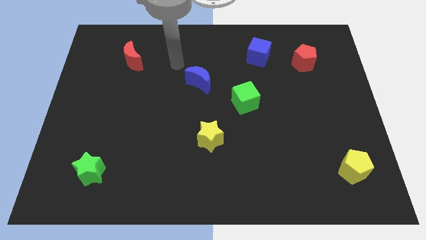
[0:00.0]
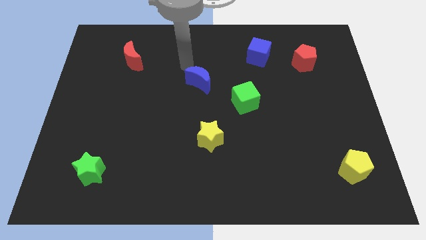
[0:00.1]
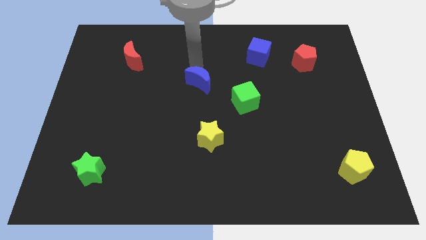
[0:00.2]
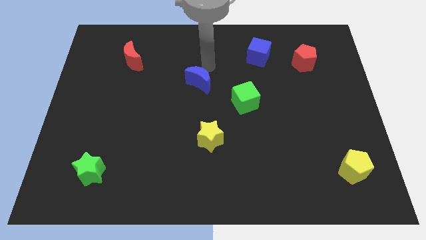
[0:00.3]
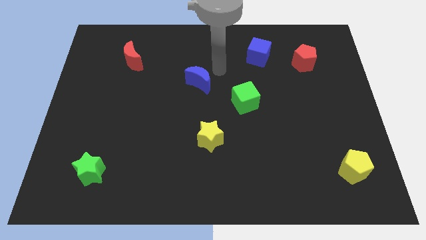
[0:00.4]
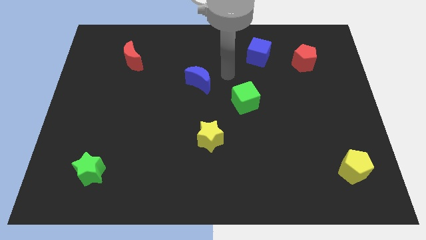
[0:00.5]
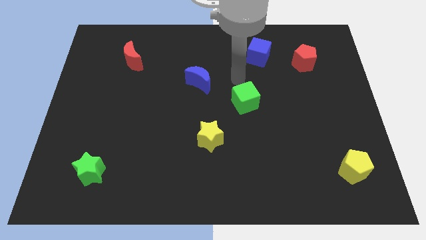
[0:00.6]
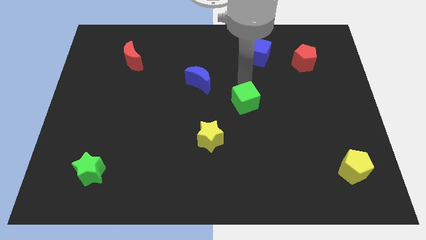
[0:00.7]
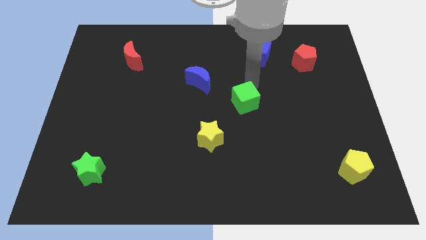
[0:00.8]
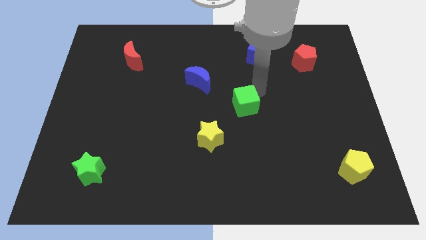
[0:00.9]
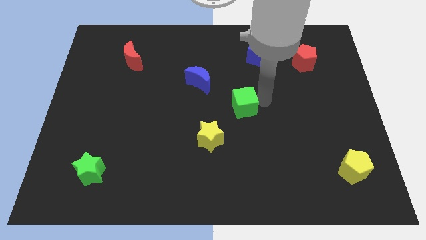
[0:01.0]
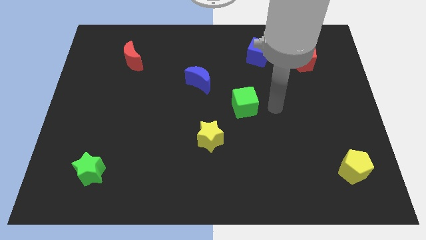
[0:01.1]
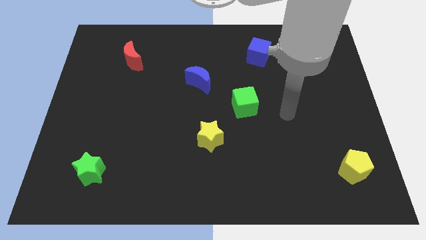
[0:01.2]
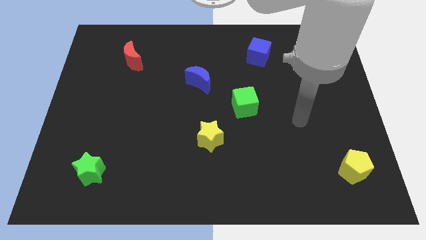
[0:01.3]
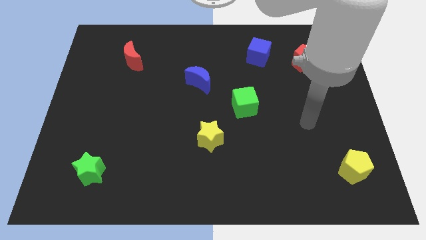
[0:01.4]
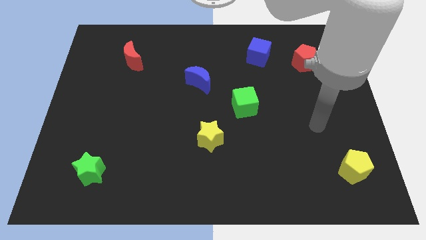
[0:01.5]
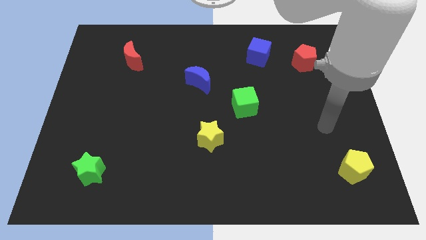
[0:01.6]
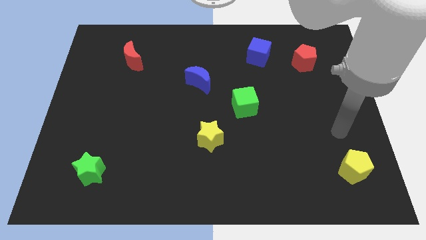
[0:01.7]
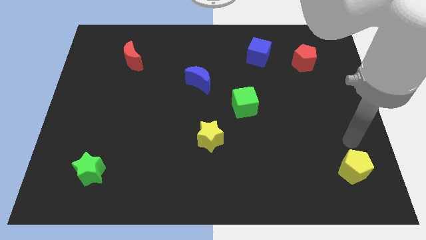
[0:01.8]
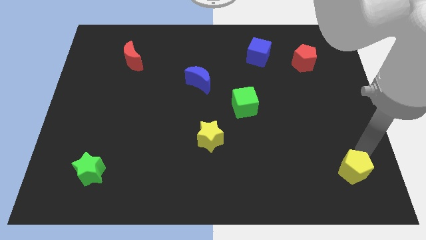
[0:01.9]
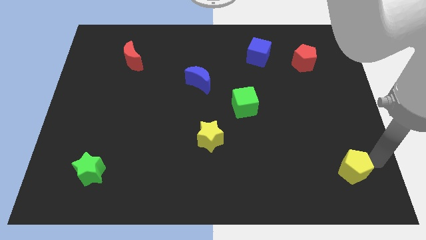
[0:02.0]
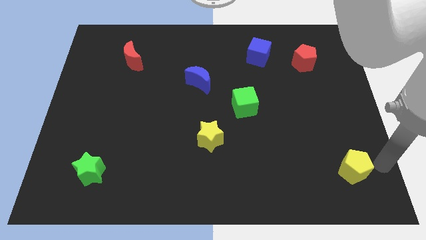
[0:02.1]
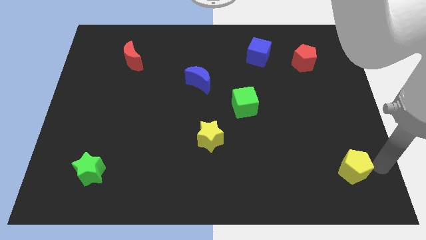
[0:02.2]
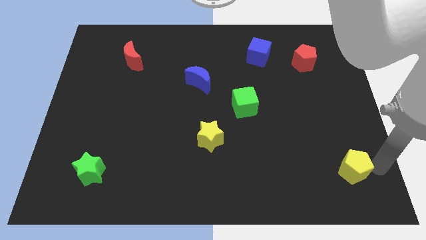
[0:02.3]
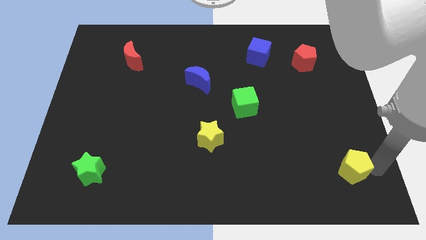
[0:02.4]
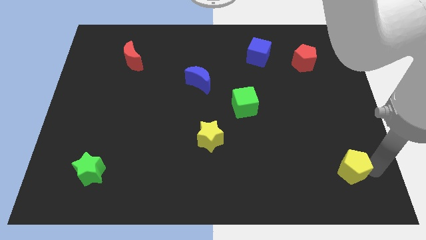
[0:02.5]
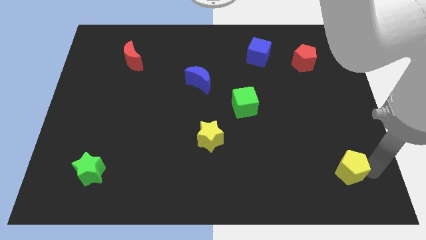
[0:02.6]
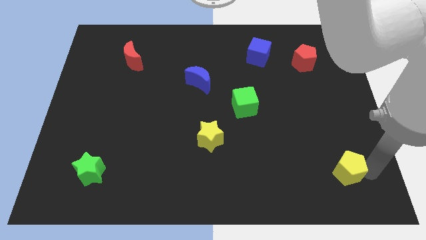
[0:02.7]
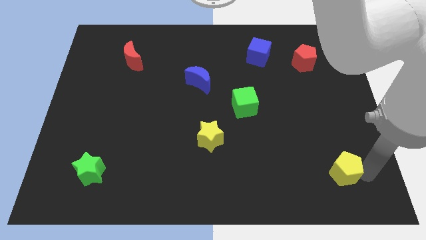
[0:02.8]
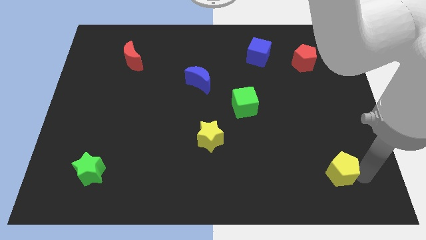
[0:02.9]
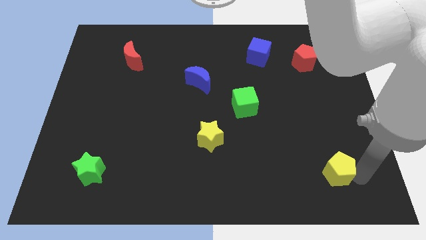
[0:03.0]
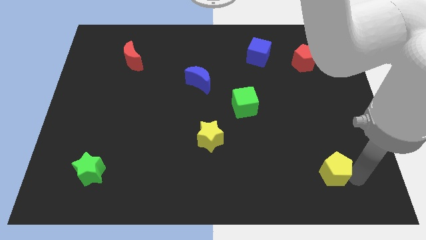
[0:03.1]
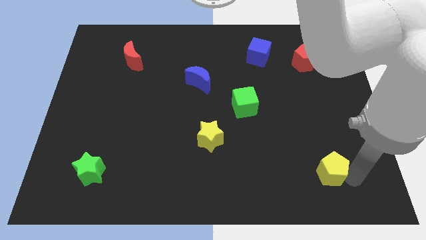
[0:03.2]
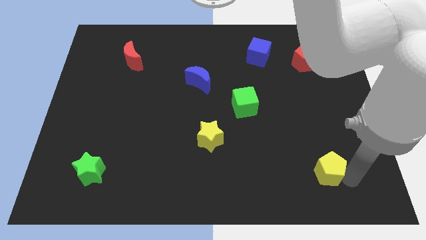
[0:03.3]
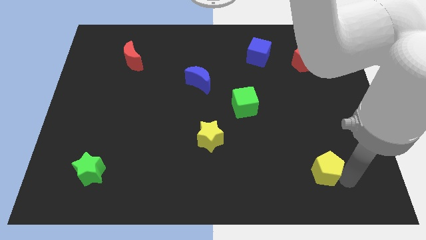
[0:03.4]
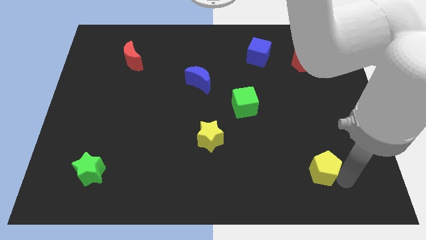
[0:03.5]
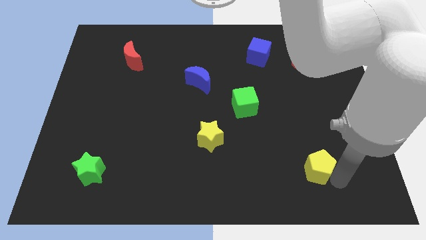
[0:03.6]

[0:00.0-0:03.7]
slightly push the yellow pentagon left

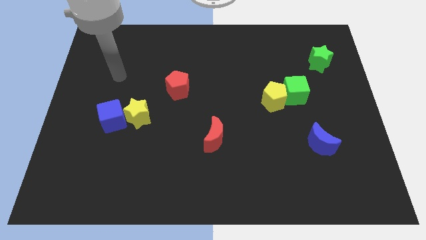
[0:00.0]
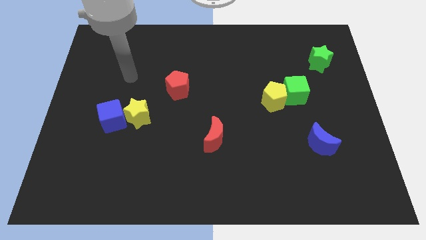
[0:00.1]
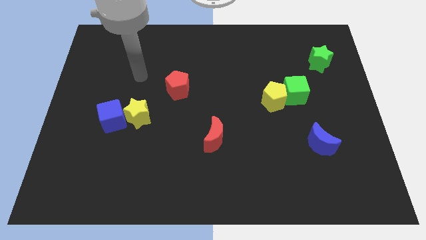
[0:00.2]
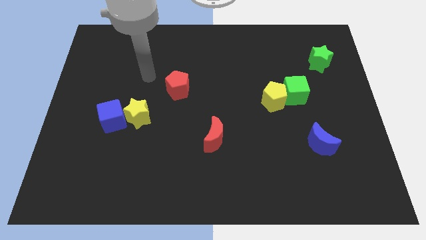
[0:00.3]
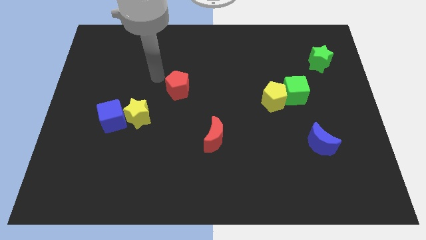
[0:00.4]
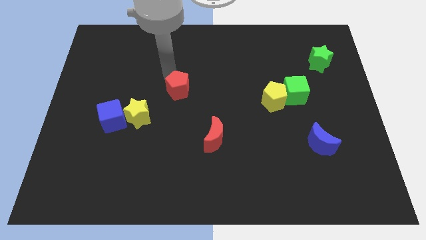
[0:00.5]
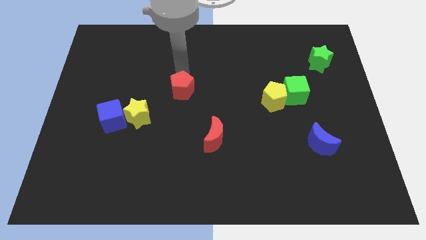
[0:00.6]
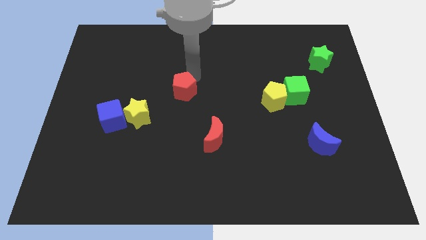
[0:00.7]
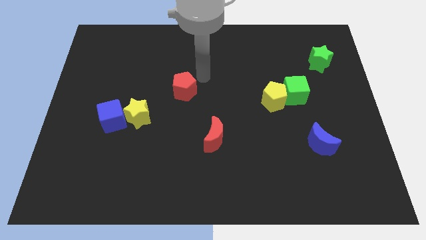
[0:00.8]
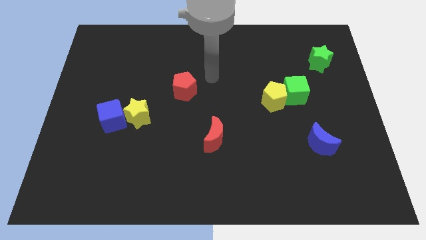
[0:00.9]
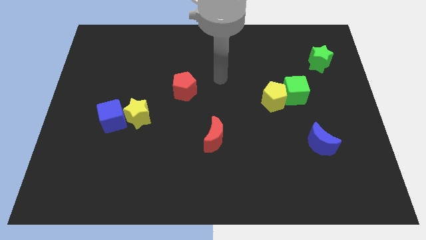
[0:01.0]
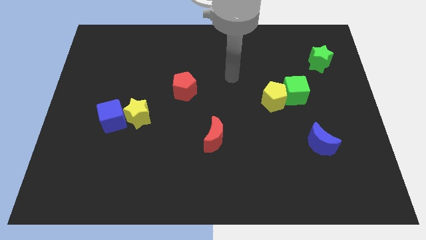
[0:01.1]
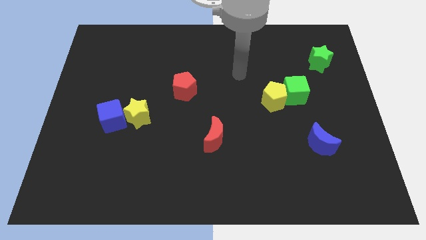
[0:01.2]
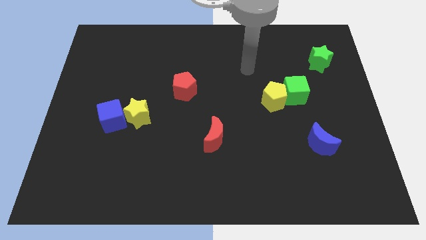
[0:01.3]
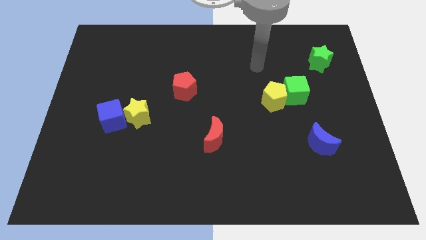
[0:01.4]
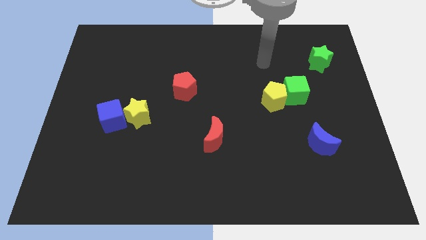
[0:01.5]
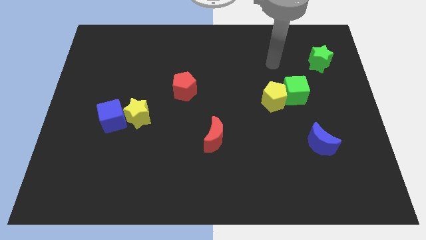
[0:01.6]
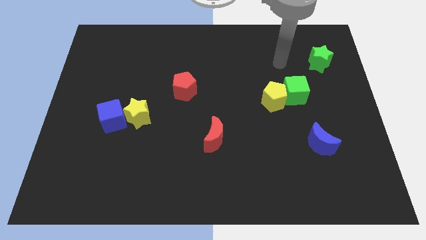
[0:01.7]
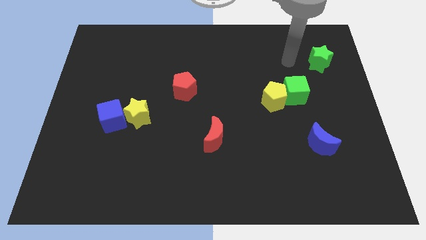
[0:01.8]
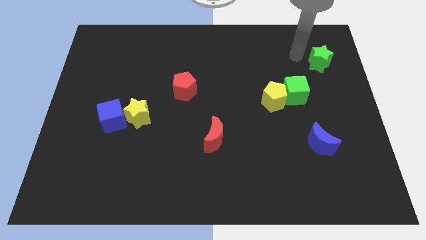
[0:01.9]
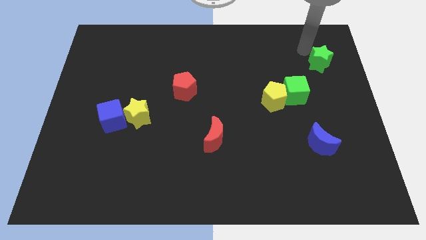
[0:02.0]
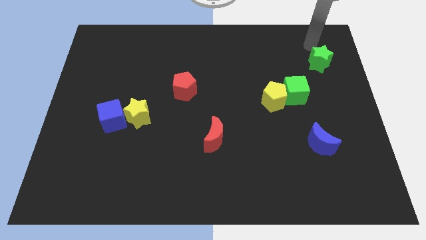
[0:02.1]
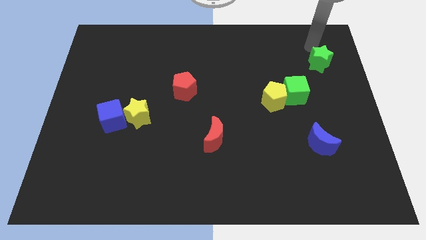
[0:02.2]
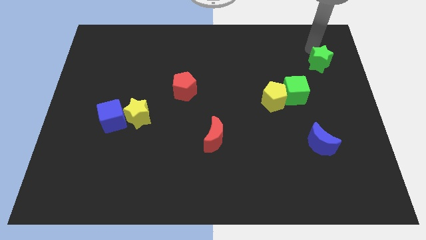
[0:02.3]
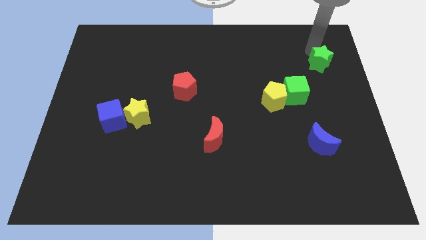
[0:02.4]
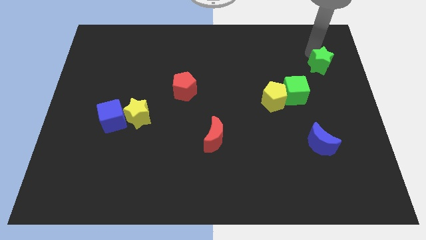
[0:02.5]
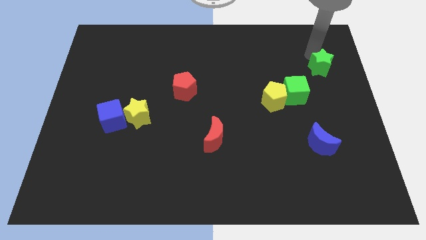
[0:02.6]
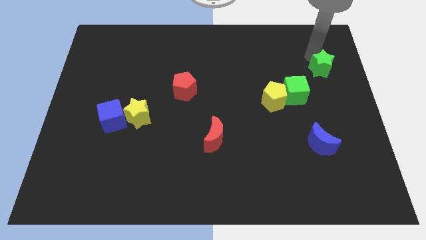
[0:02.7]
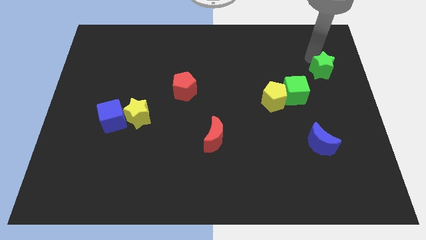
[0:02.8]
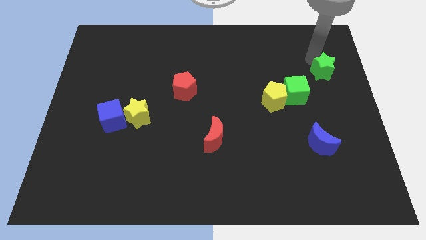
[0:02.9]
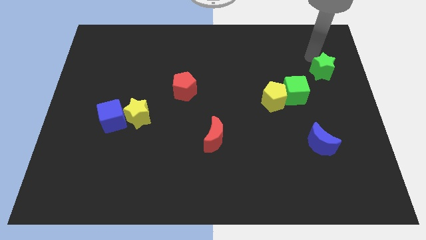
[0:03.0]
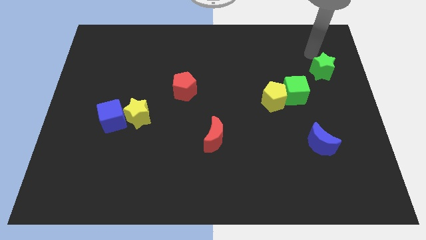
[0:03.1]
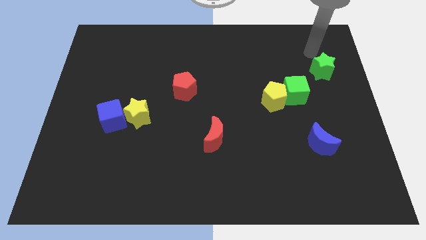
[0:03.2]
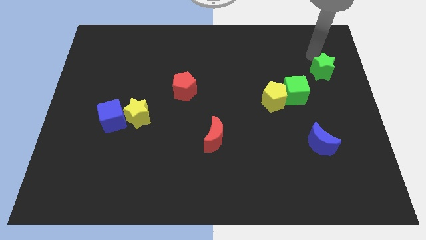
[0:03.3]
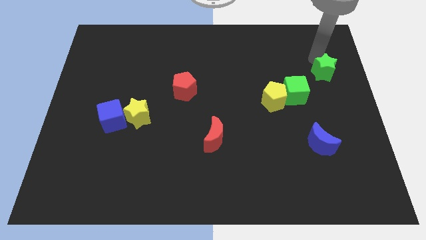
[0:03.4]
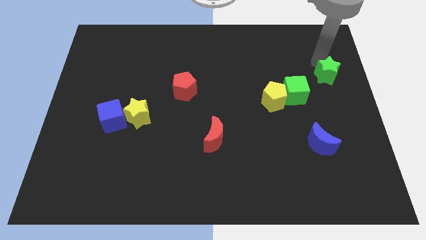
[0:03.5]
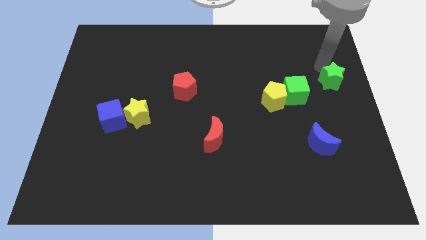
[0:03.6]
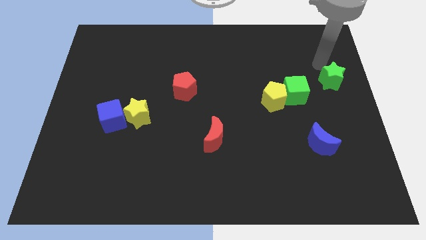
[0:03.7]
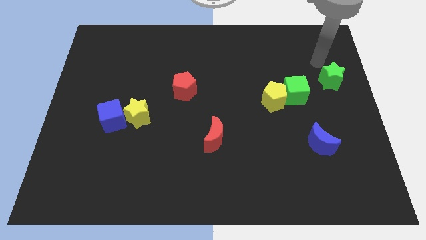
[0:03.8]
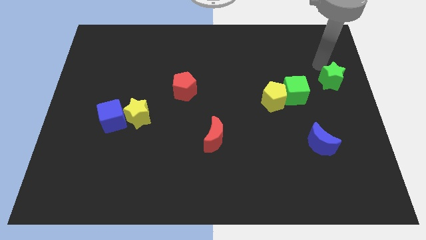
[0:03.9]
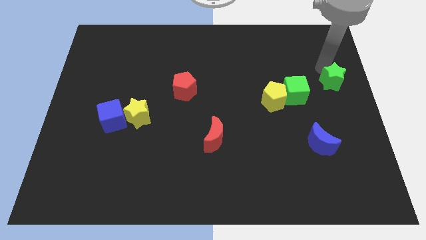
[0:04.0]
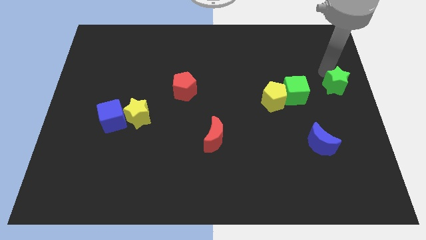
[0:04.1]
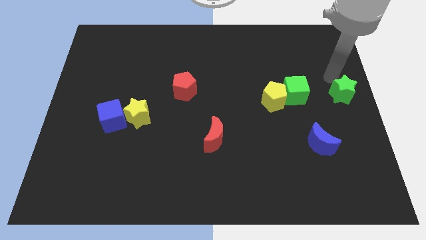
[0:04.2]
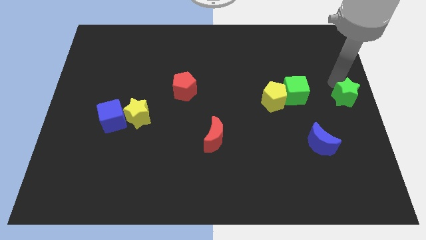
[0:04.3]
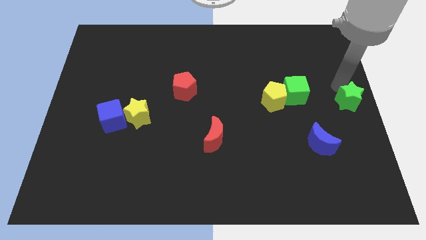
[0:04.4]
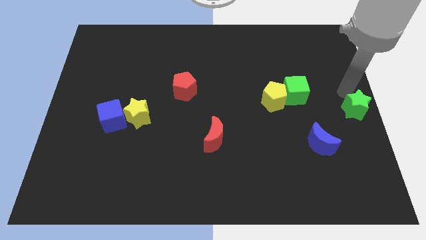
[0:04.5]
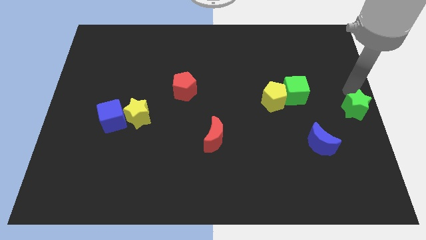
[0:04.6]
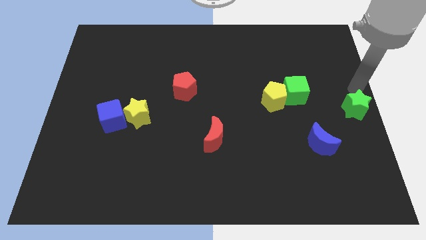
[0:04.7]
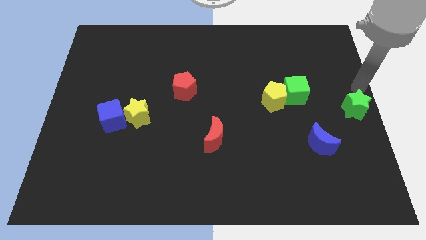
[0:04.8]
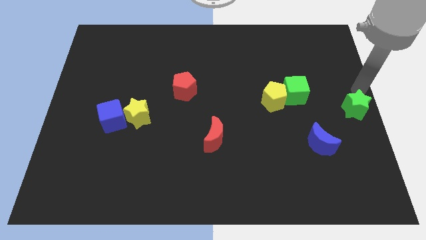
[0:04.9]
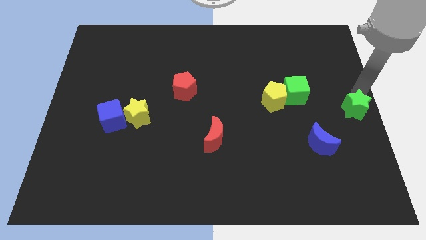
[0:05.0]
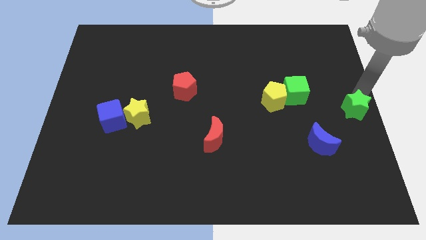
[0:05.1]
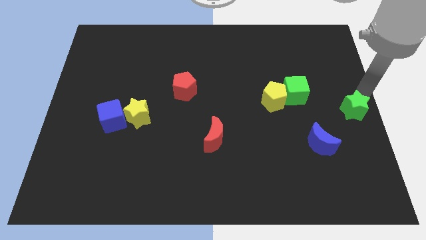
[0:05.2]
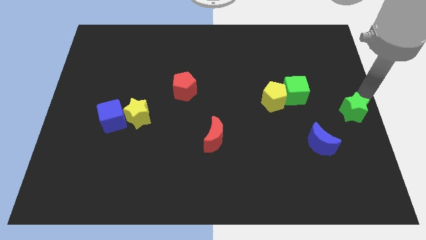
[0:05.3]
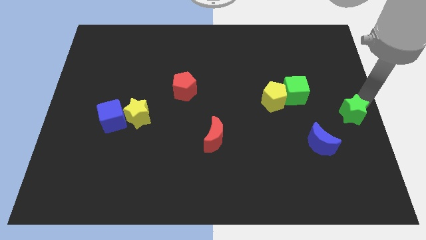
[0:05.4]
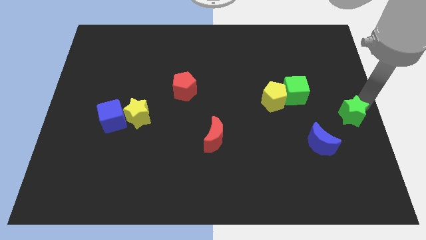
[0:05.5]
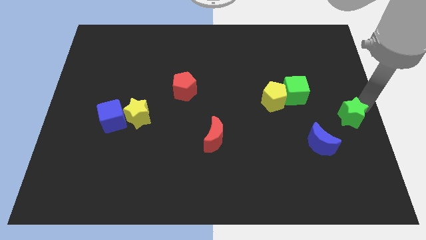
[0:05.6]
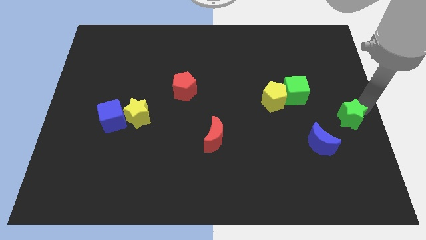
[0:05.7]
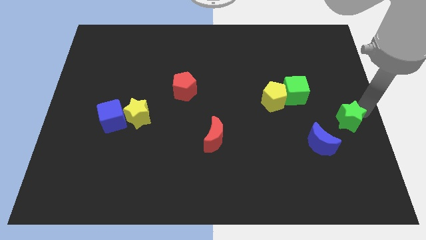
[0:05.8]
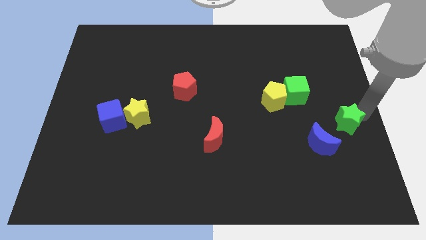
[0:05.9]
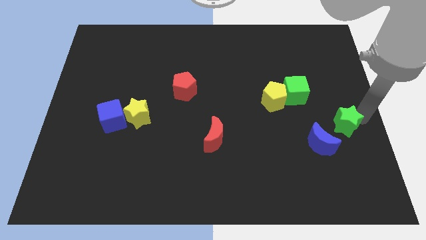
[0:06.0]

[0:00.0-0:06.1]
slide the green star down
